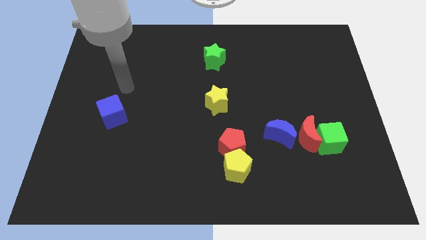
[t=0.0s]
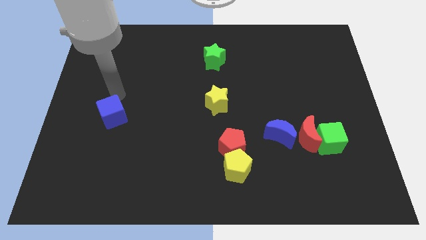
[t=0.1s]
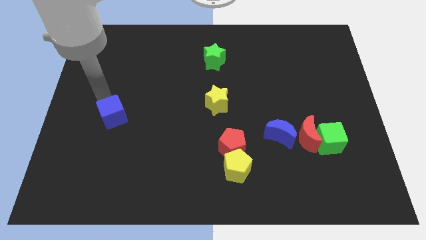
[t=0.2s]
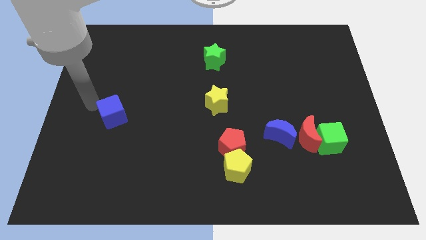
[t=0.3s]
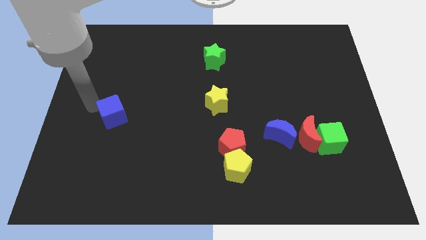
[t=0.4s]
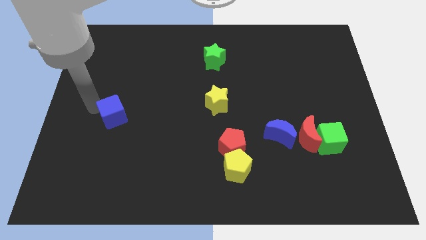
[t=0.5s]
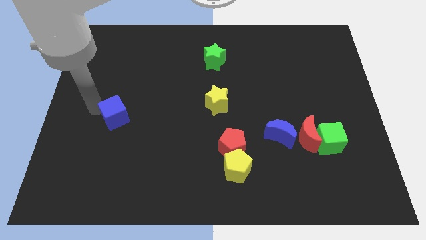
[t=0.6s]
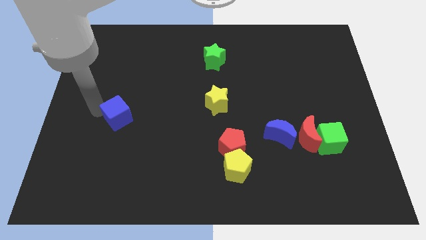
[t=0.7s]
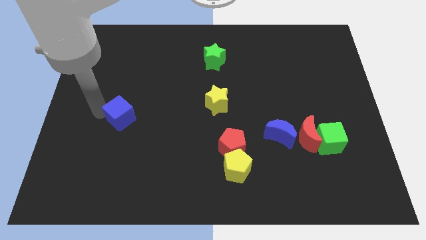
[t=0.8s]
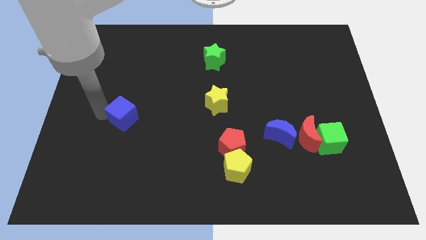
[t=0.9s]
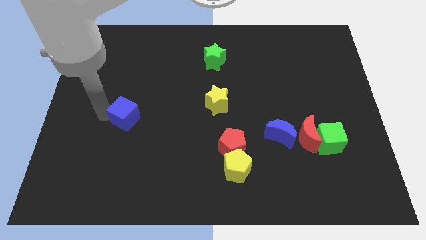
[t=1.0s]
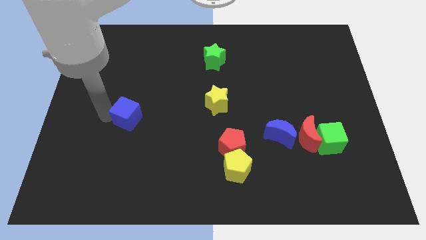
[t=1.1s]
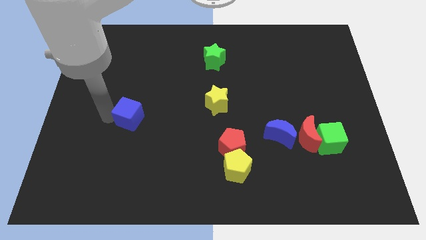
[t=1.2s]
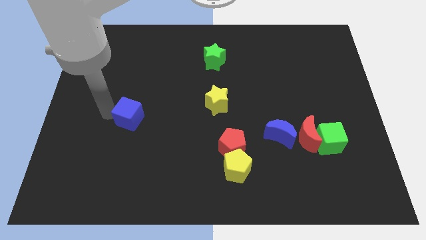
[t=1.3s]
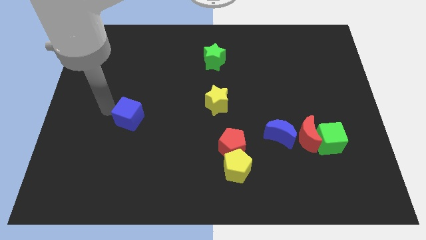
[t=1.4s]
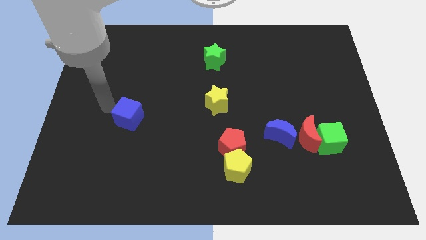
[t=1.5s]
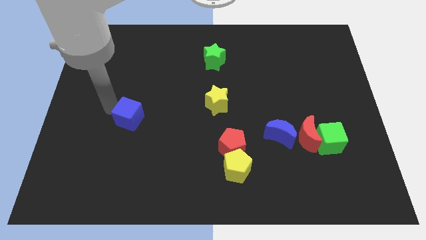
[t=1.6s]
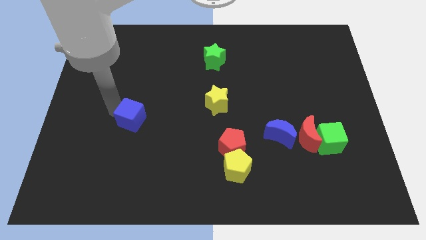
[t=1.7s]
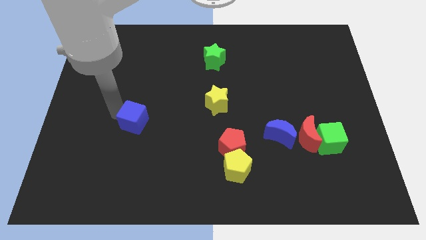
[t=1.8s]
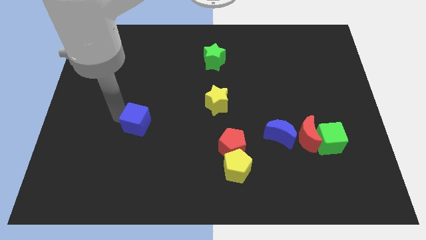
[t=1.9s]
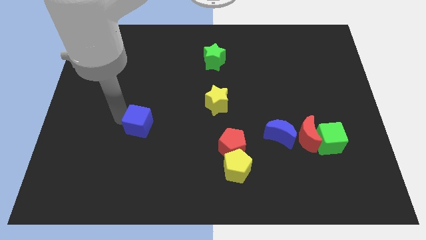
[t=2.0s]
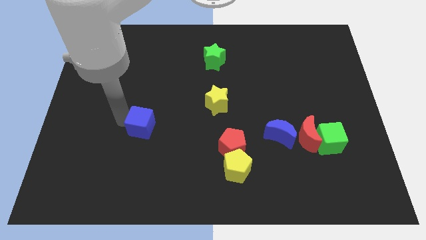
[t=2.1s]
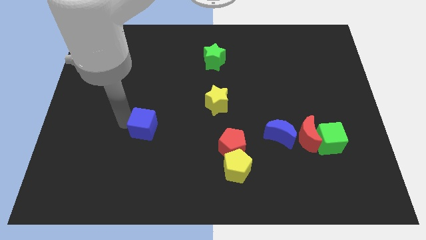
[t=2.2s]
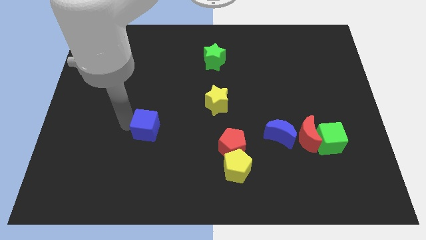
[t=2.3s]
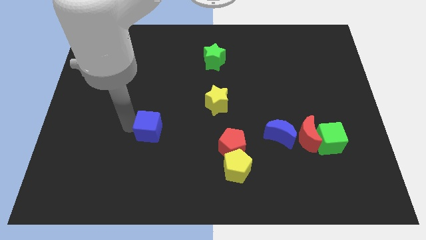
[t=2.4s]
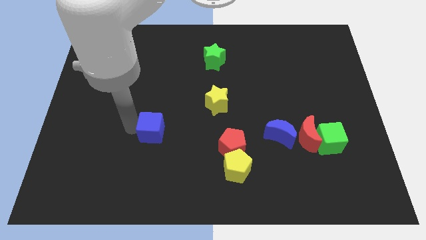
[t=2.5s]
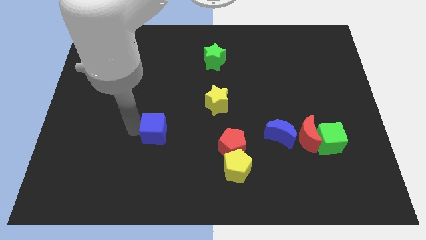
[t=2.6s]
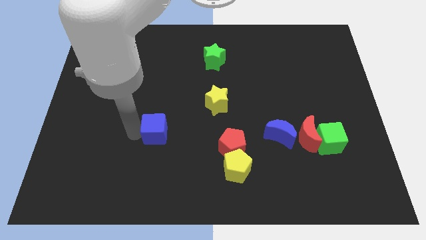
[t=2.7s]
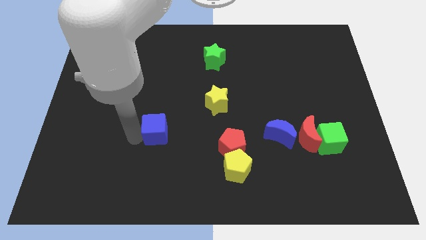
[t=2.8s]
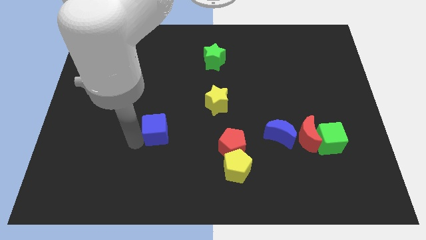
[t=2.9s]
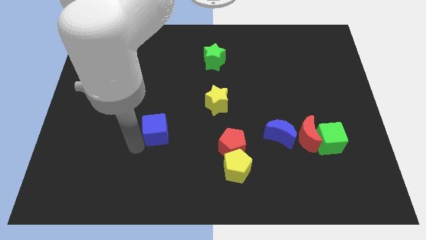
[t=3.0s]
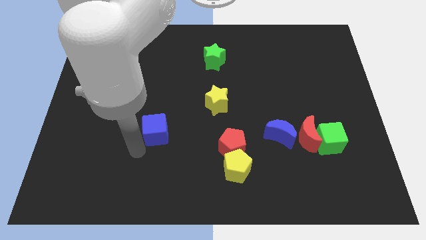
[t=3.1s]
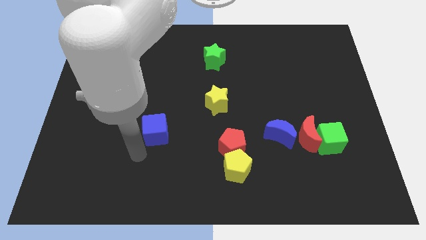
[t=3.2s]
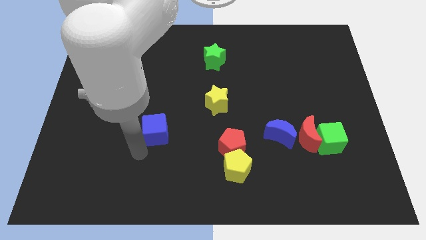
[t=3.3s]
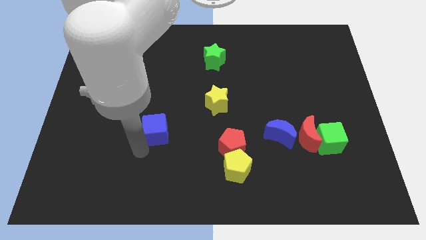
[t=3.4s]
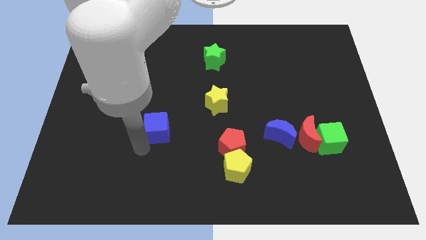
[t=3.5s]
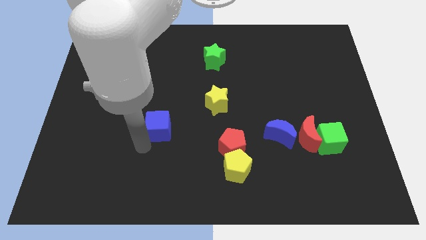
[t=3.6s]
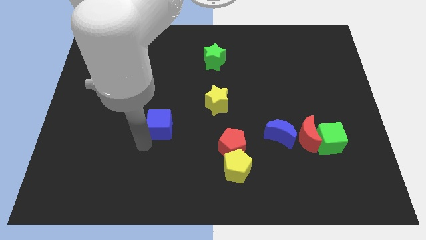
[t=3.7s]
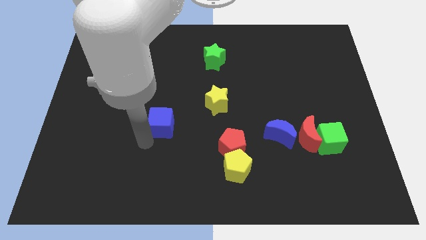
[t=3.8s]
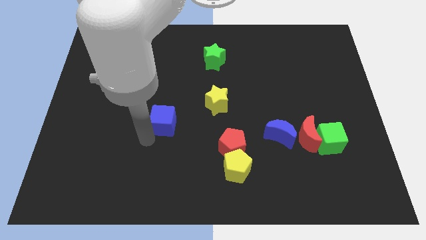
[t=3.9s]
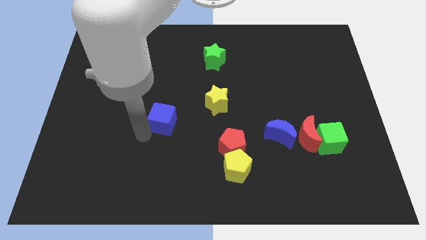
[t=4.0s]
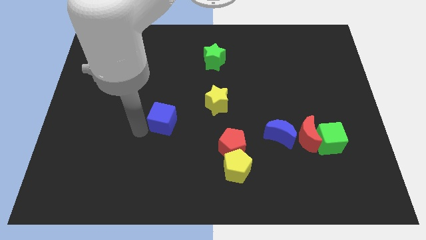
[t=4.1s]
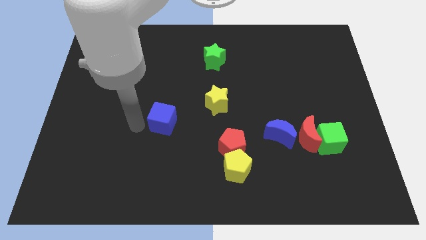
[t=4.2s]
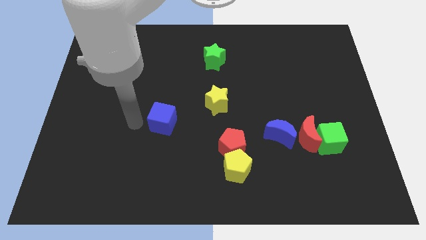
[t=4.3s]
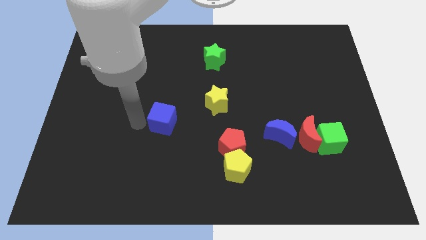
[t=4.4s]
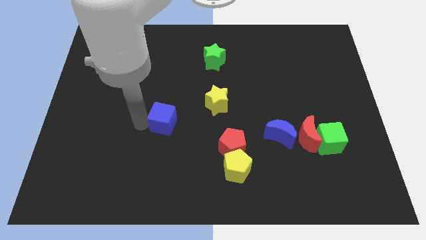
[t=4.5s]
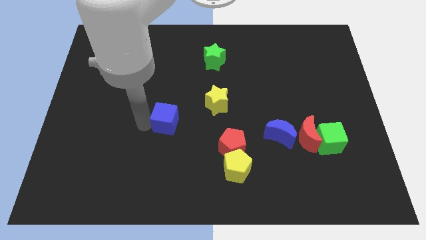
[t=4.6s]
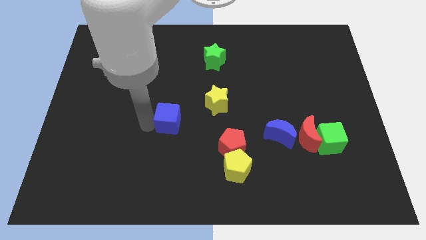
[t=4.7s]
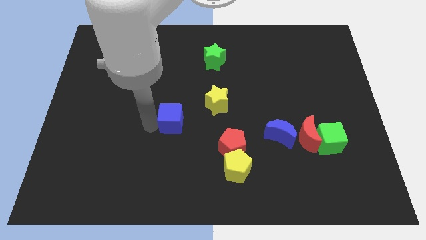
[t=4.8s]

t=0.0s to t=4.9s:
slide the blue cube to the bottom left side of the yellow star

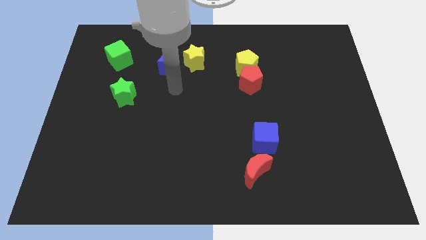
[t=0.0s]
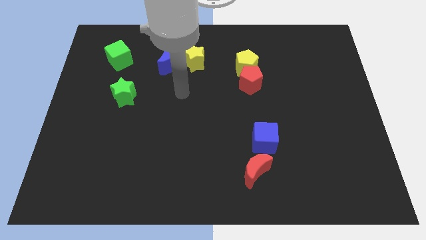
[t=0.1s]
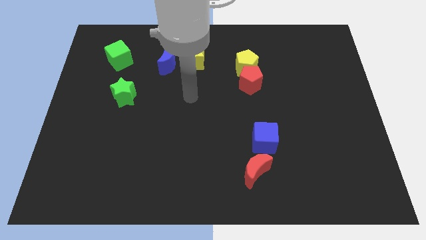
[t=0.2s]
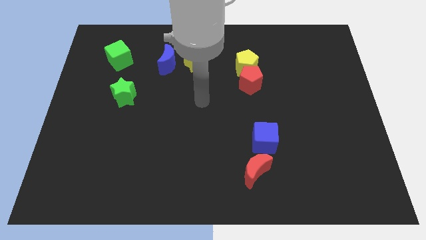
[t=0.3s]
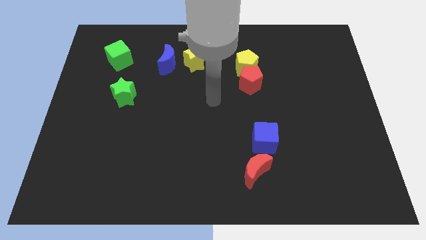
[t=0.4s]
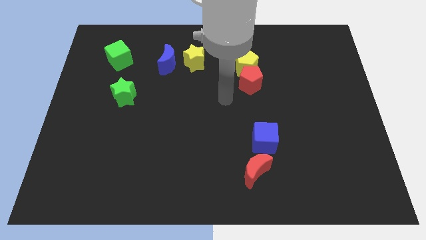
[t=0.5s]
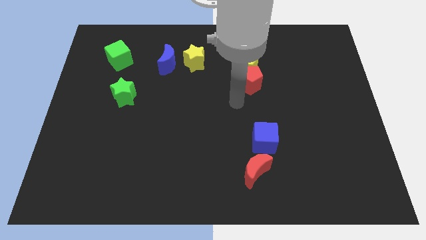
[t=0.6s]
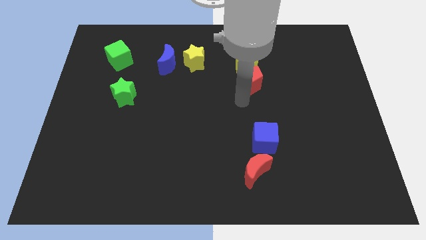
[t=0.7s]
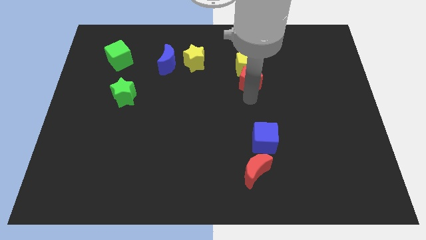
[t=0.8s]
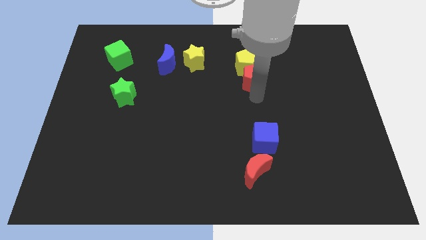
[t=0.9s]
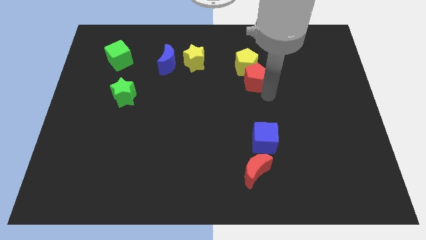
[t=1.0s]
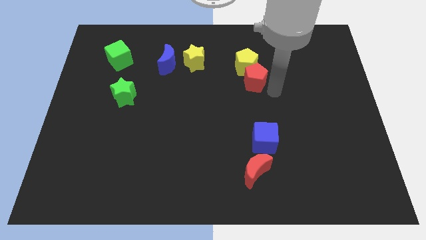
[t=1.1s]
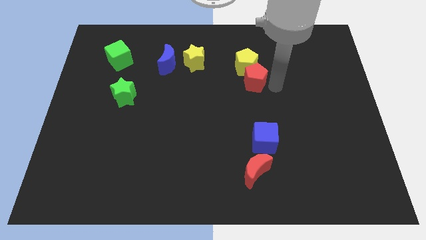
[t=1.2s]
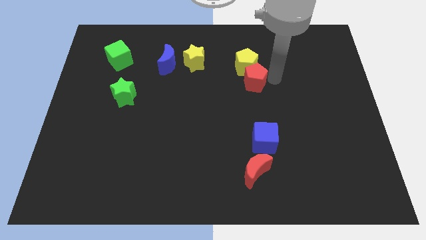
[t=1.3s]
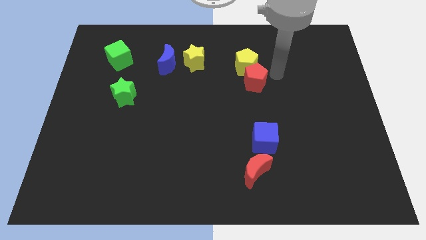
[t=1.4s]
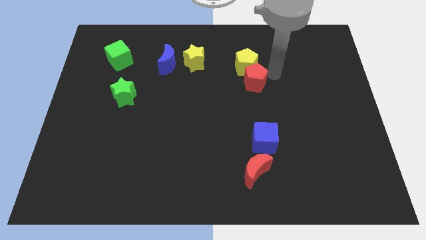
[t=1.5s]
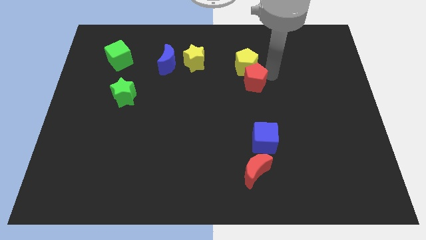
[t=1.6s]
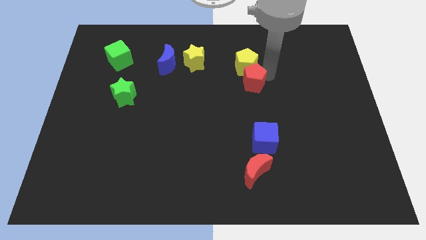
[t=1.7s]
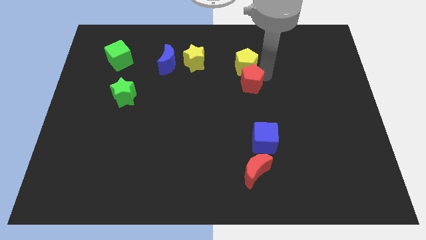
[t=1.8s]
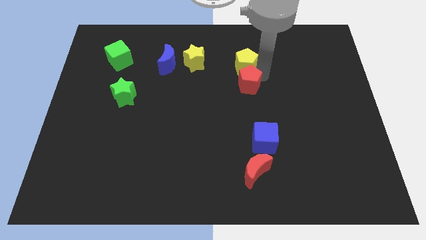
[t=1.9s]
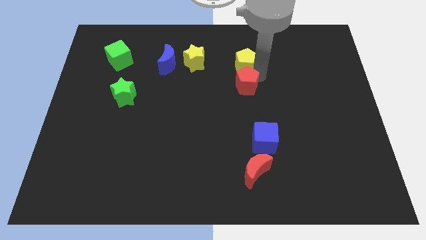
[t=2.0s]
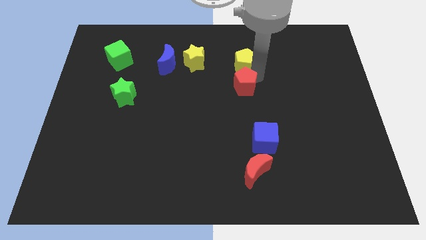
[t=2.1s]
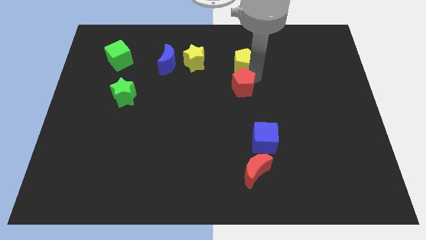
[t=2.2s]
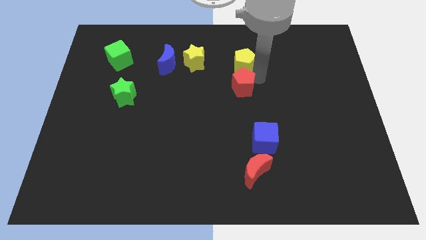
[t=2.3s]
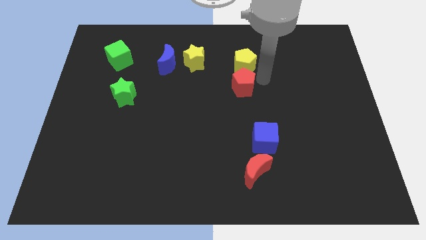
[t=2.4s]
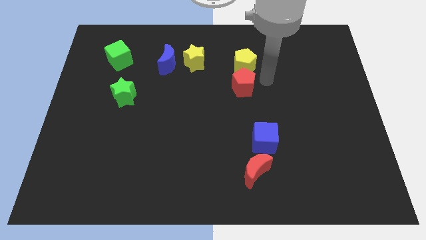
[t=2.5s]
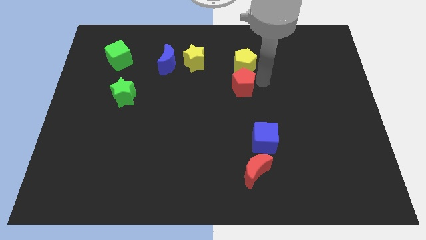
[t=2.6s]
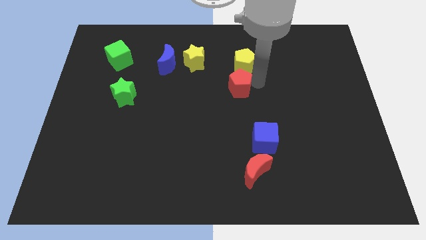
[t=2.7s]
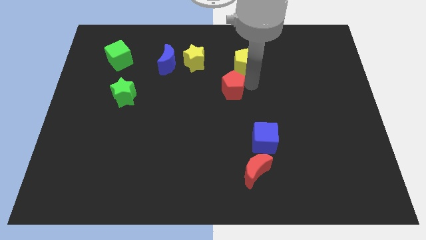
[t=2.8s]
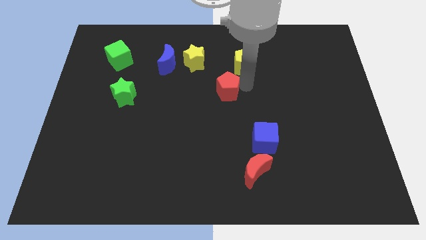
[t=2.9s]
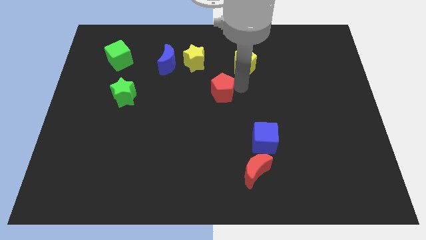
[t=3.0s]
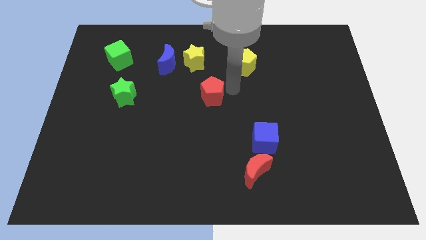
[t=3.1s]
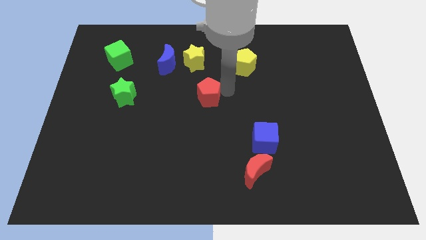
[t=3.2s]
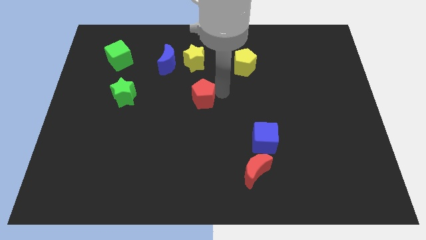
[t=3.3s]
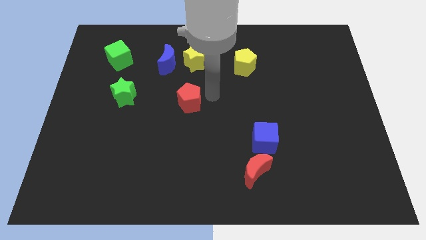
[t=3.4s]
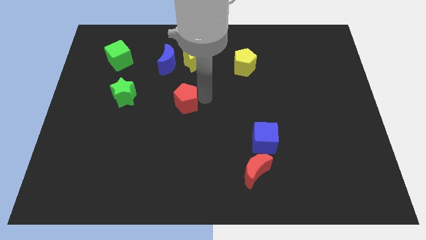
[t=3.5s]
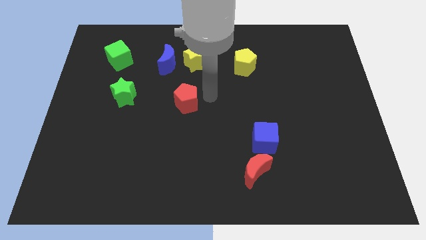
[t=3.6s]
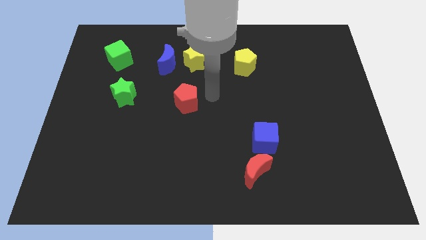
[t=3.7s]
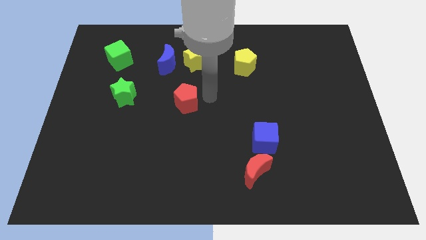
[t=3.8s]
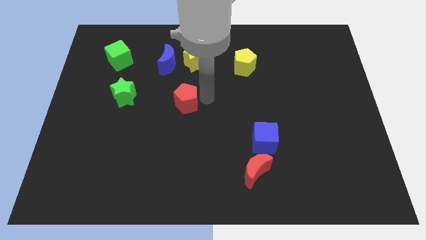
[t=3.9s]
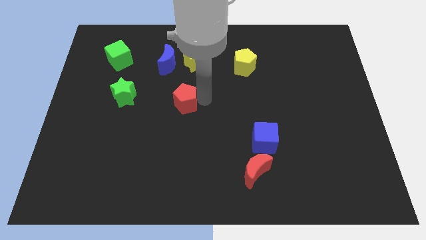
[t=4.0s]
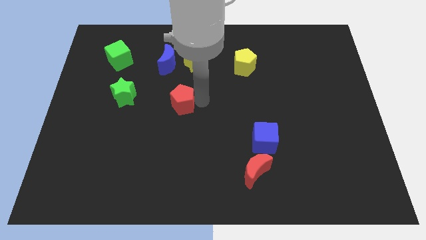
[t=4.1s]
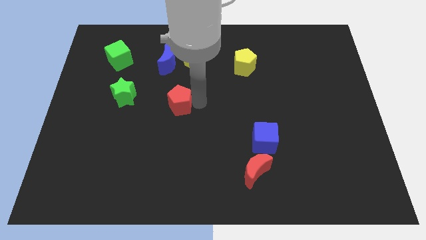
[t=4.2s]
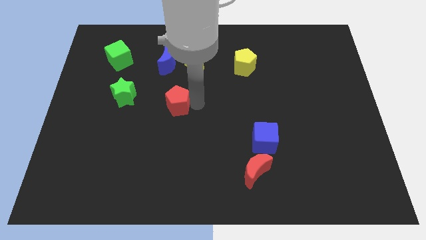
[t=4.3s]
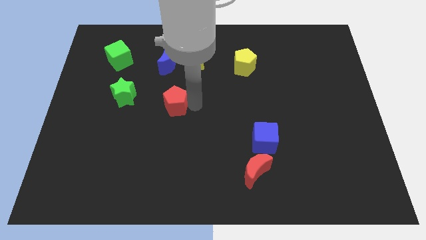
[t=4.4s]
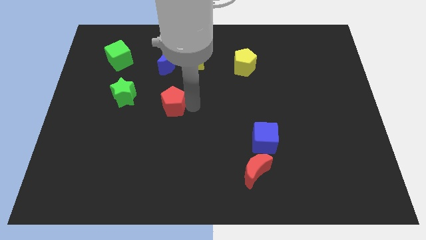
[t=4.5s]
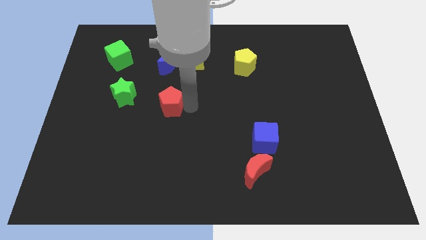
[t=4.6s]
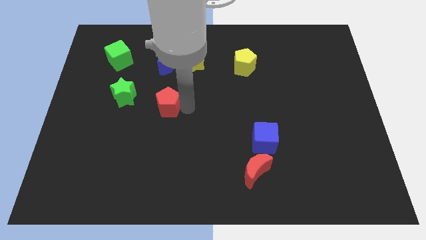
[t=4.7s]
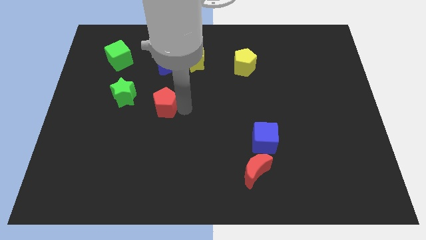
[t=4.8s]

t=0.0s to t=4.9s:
push the red pentagon to the bottom right side of the green star
